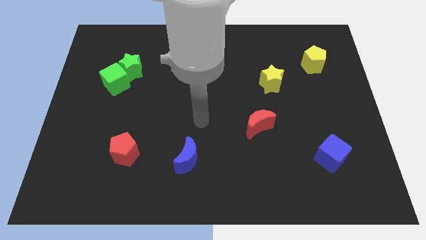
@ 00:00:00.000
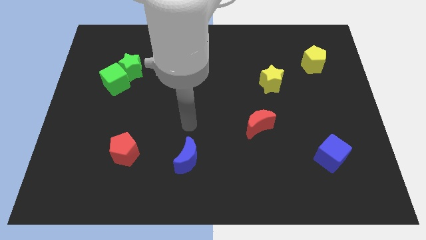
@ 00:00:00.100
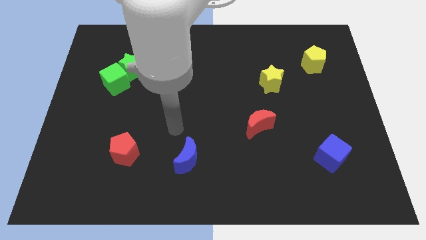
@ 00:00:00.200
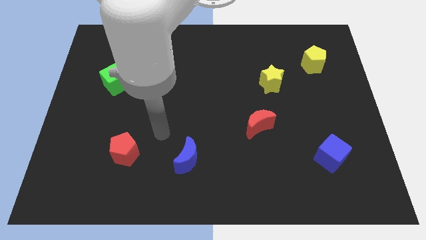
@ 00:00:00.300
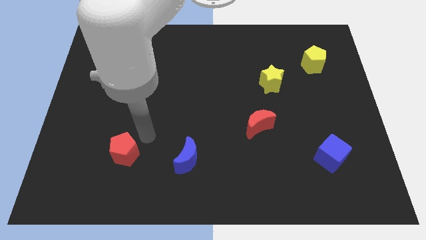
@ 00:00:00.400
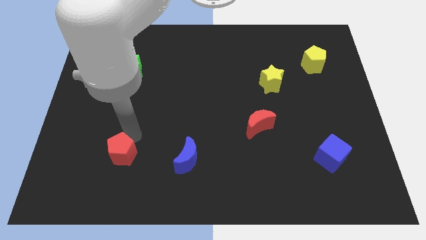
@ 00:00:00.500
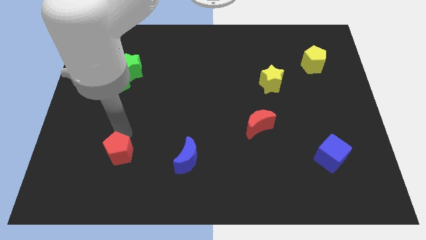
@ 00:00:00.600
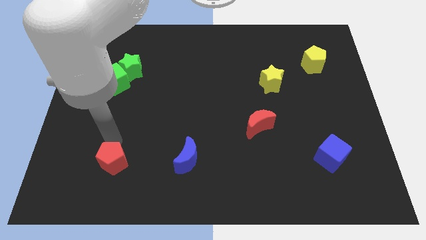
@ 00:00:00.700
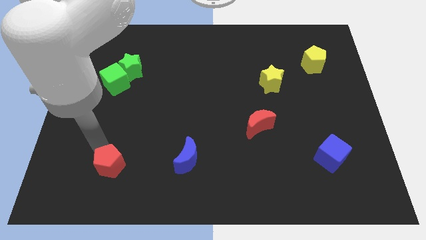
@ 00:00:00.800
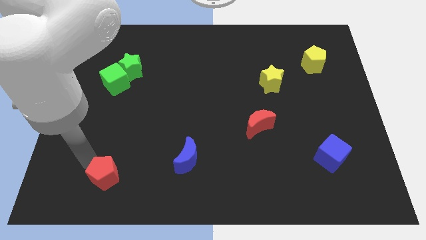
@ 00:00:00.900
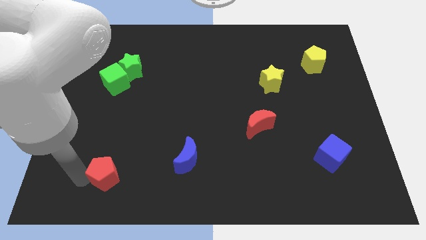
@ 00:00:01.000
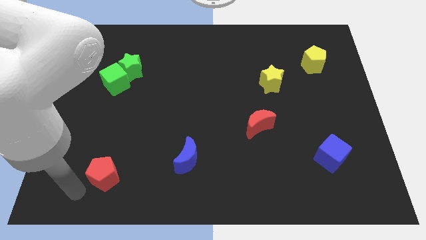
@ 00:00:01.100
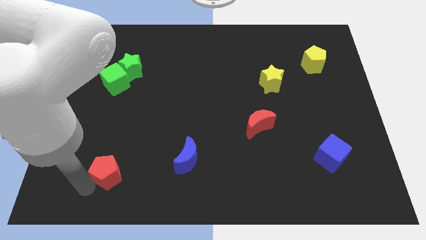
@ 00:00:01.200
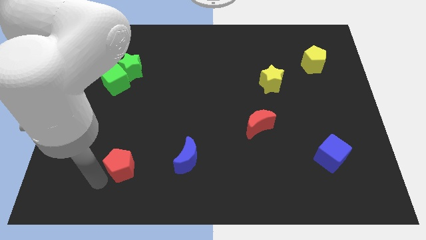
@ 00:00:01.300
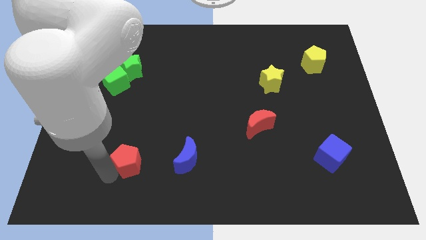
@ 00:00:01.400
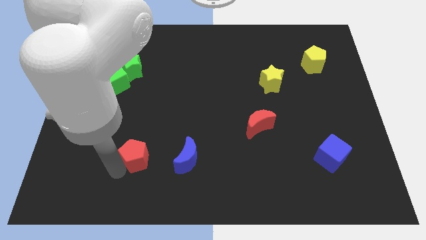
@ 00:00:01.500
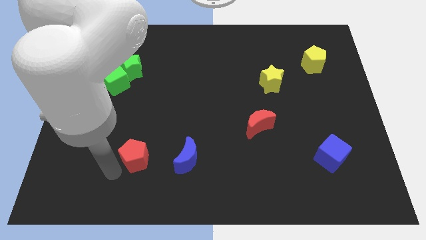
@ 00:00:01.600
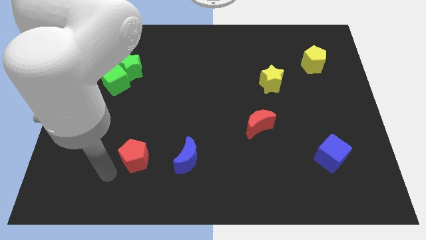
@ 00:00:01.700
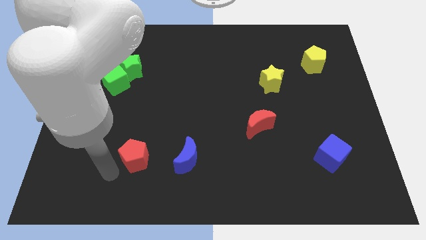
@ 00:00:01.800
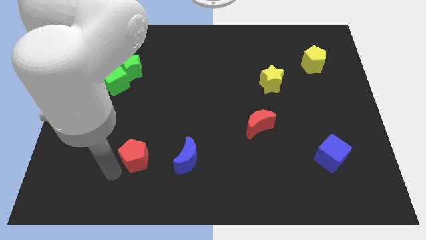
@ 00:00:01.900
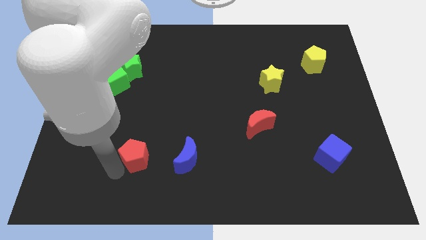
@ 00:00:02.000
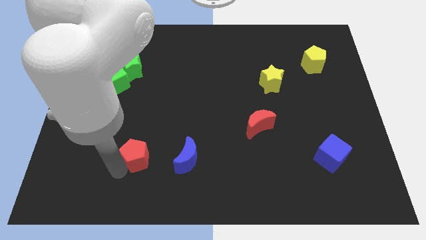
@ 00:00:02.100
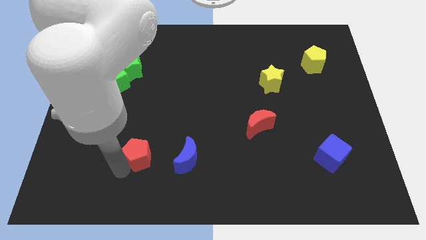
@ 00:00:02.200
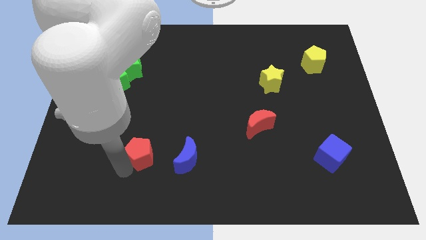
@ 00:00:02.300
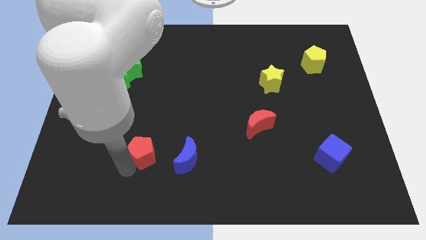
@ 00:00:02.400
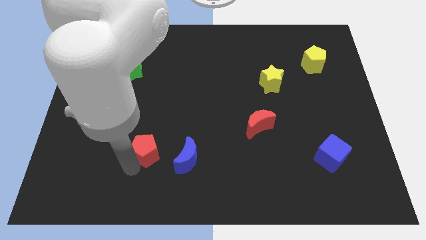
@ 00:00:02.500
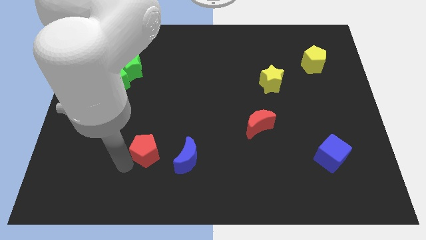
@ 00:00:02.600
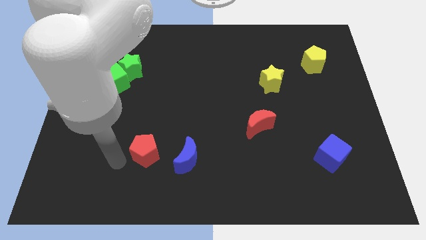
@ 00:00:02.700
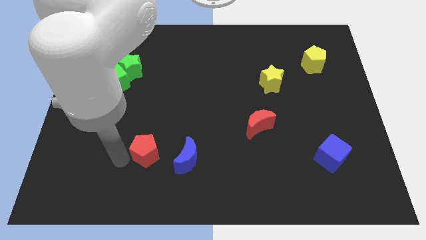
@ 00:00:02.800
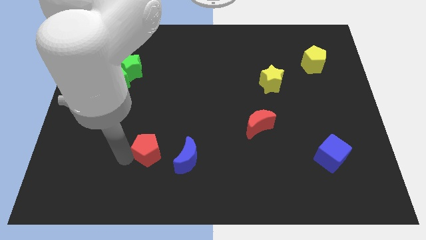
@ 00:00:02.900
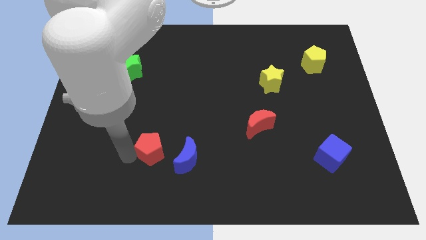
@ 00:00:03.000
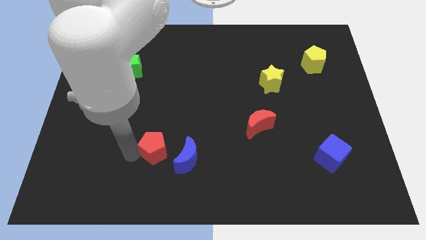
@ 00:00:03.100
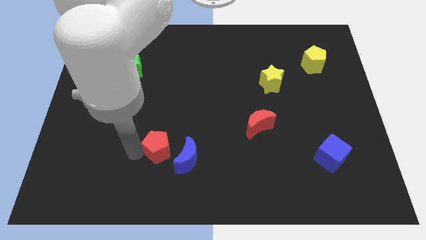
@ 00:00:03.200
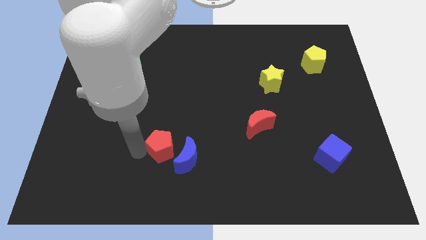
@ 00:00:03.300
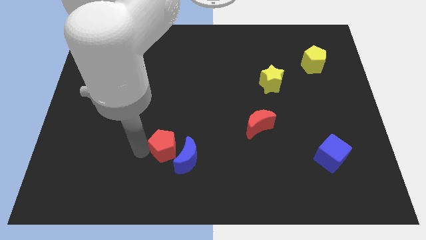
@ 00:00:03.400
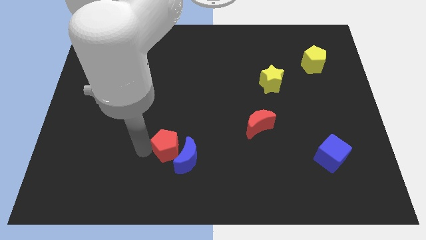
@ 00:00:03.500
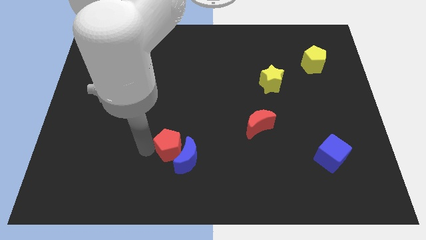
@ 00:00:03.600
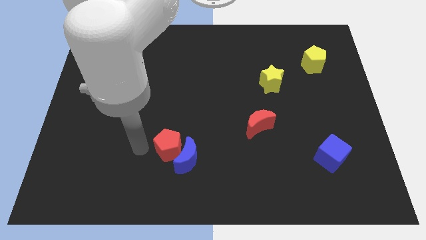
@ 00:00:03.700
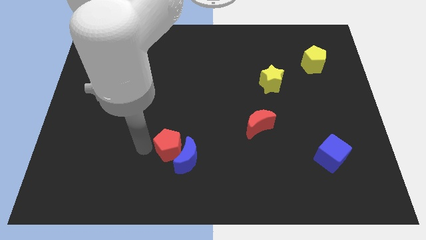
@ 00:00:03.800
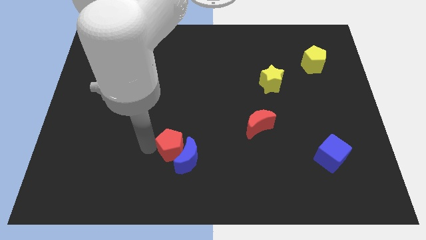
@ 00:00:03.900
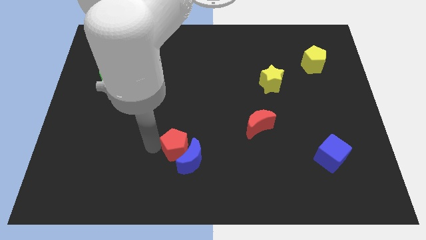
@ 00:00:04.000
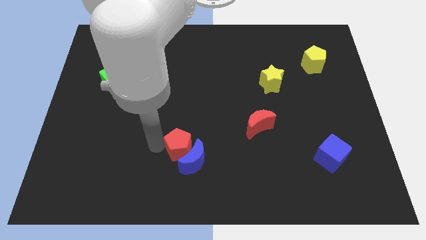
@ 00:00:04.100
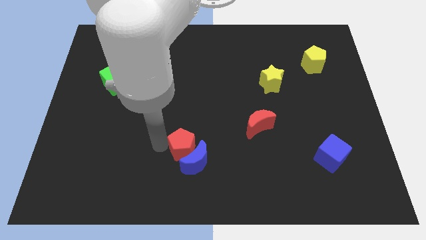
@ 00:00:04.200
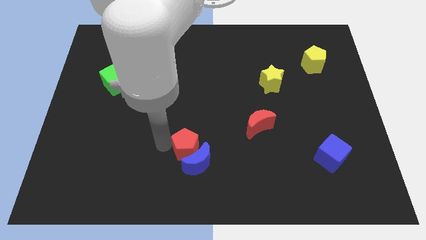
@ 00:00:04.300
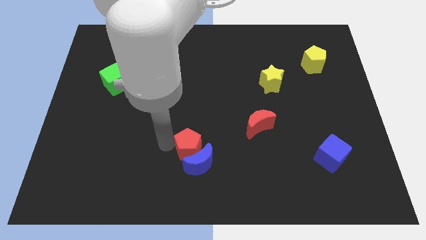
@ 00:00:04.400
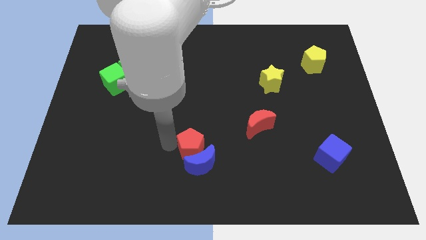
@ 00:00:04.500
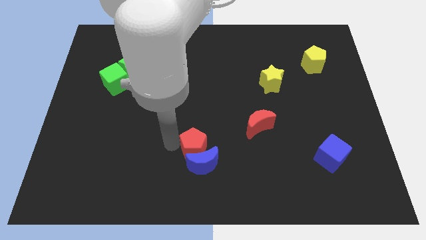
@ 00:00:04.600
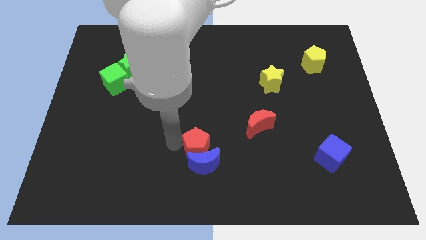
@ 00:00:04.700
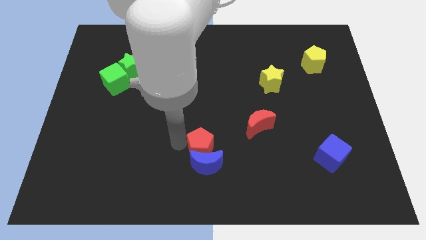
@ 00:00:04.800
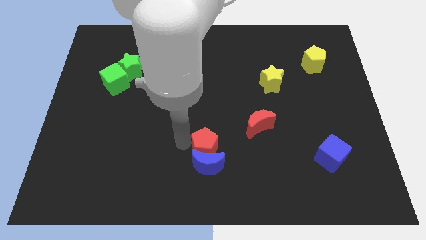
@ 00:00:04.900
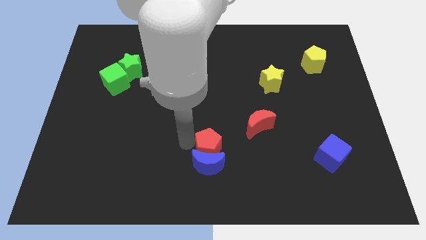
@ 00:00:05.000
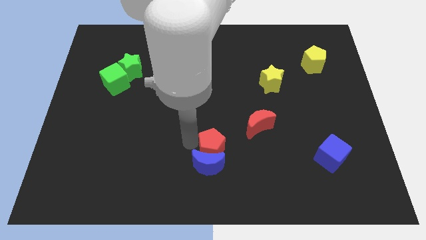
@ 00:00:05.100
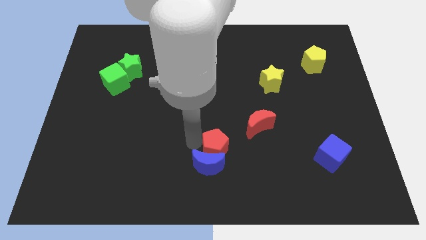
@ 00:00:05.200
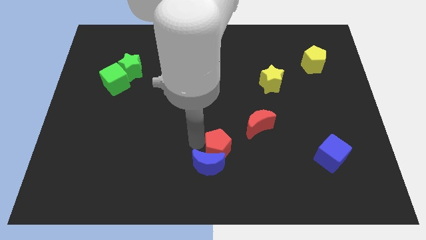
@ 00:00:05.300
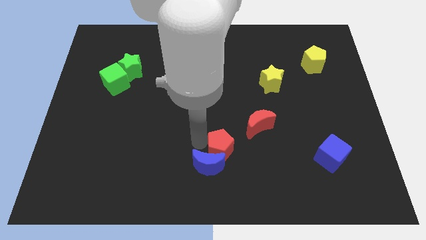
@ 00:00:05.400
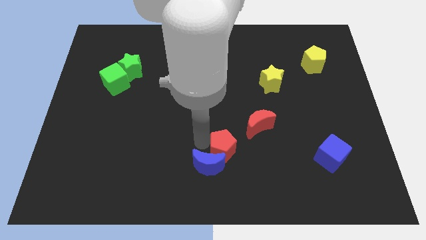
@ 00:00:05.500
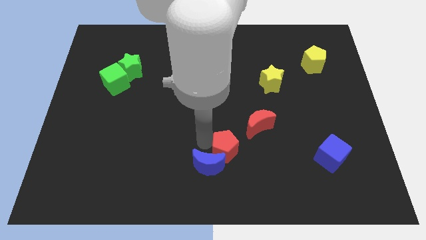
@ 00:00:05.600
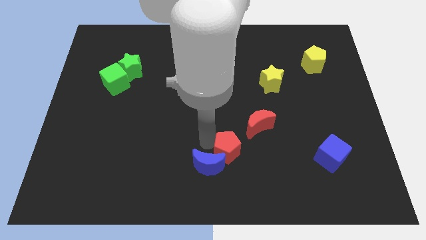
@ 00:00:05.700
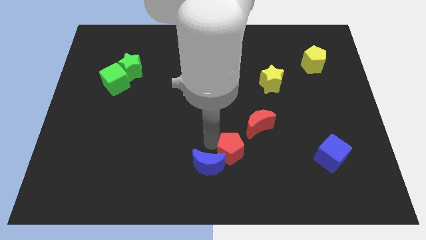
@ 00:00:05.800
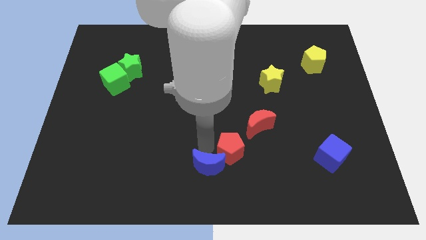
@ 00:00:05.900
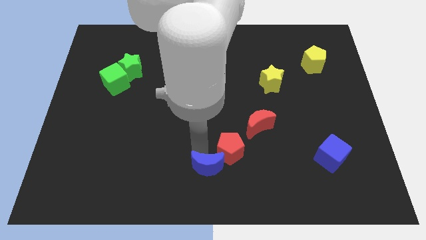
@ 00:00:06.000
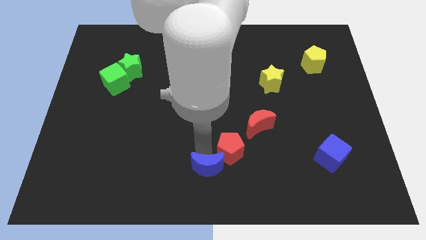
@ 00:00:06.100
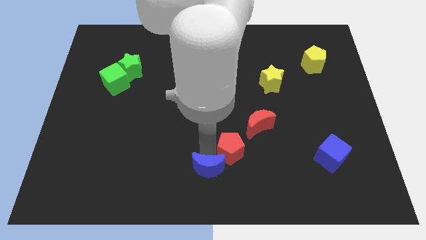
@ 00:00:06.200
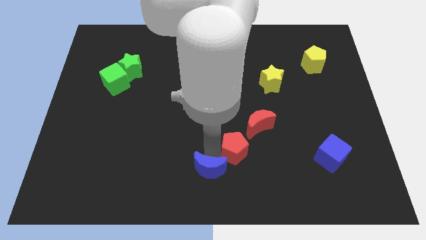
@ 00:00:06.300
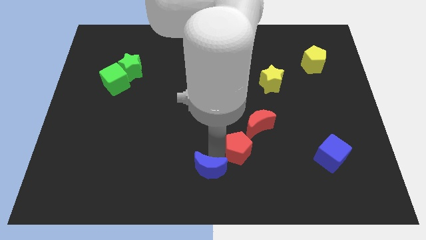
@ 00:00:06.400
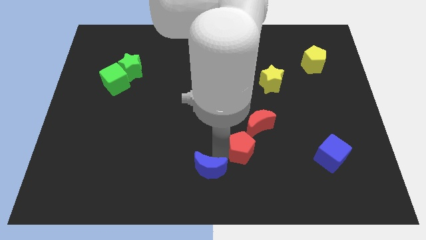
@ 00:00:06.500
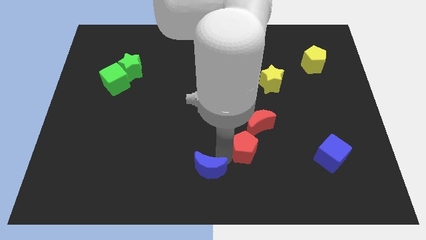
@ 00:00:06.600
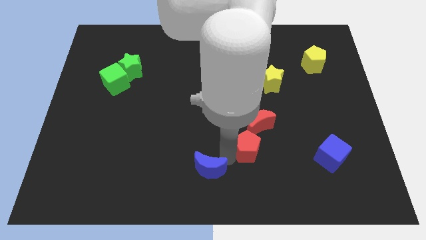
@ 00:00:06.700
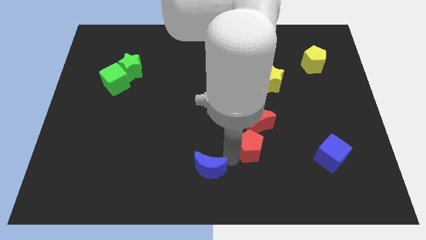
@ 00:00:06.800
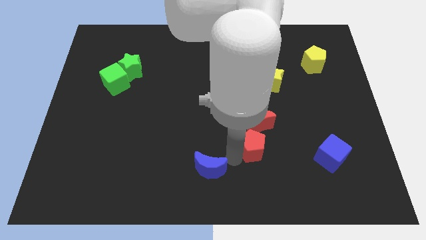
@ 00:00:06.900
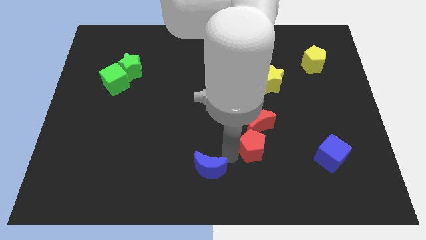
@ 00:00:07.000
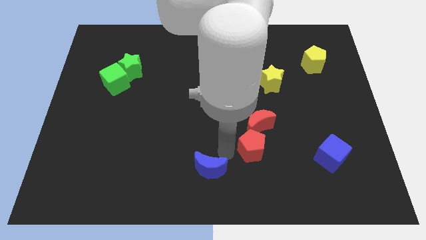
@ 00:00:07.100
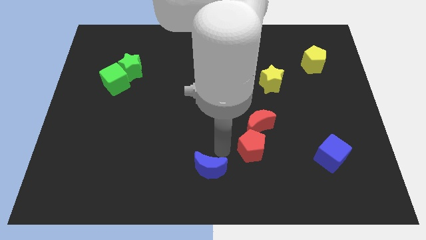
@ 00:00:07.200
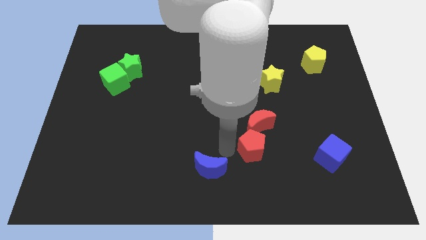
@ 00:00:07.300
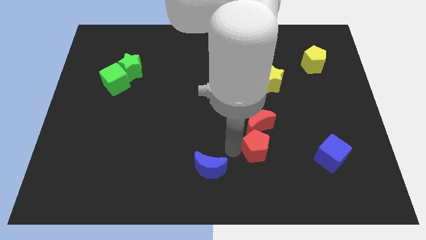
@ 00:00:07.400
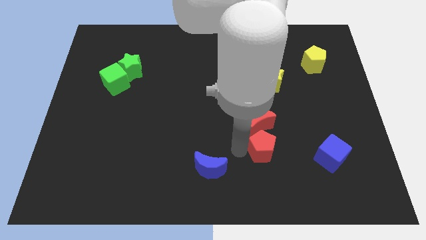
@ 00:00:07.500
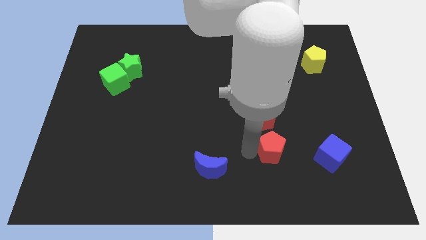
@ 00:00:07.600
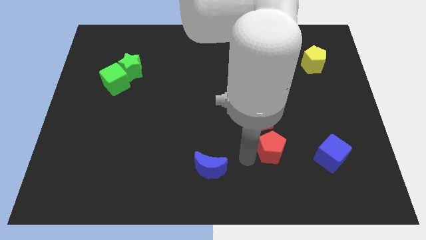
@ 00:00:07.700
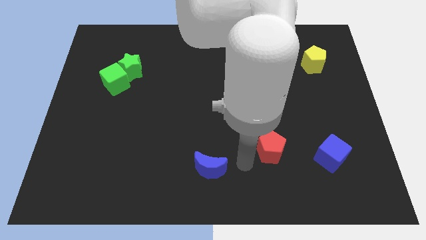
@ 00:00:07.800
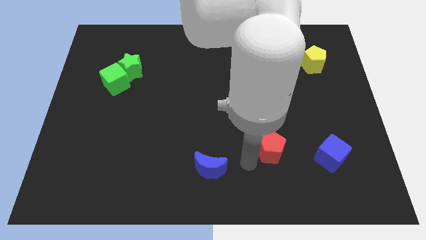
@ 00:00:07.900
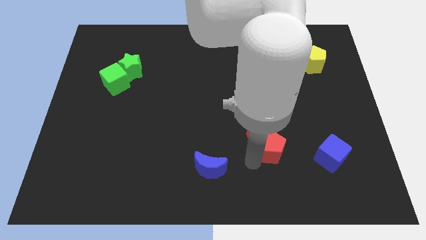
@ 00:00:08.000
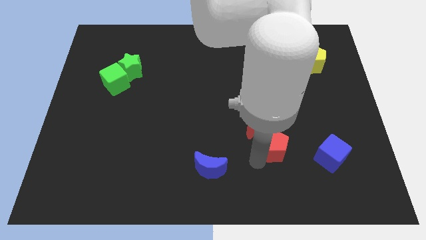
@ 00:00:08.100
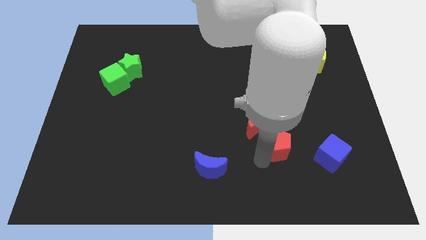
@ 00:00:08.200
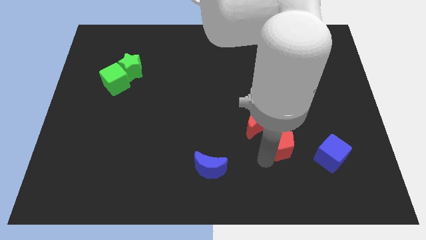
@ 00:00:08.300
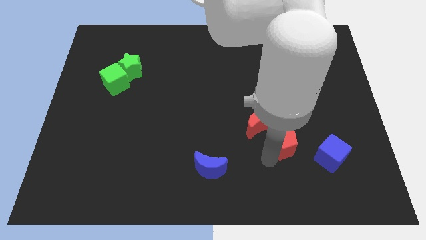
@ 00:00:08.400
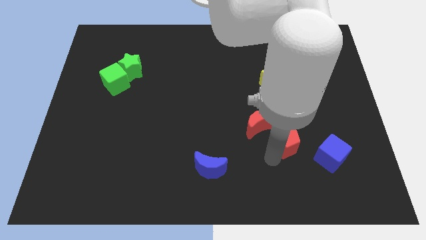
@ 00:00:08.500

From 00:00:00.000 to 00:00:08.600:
move the red pentagon to the top left side of the blue cube
